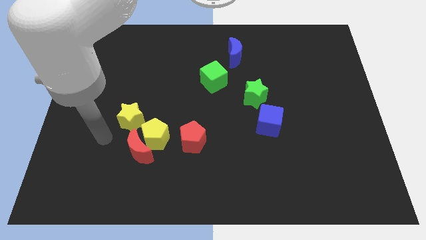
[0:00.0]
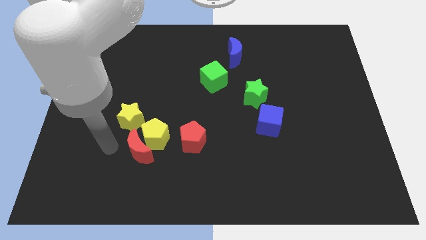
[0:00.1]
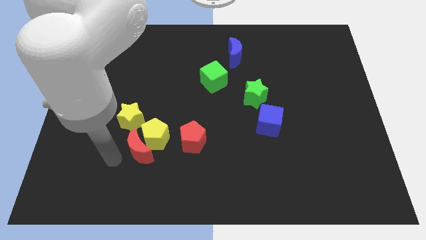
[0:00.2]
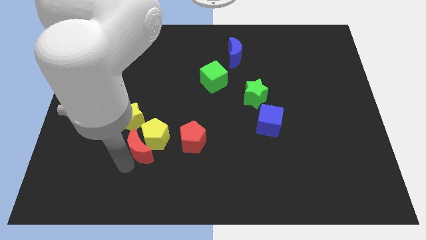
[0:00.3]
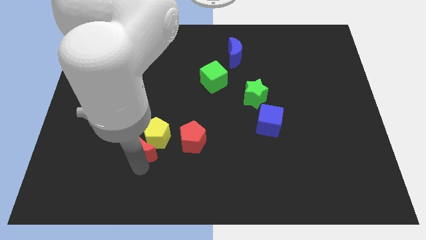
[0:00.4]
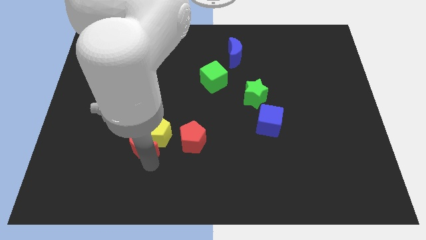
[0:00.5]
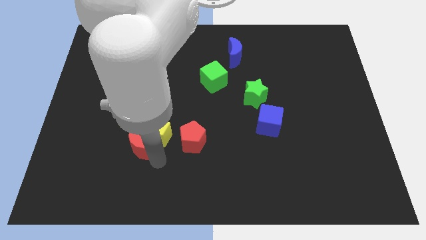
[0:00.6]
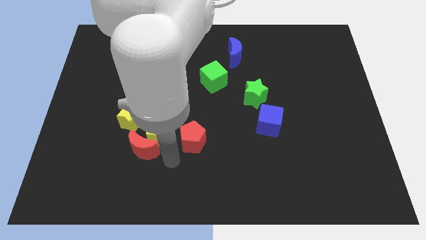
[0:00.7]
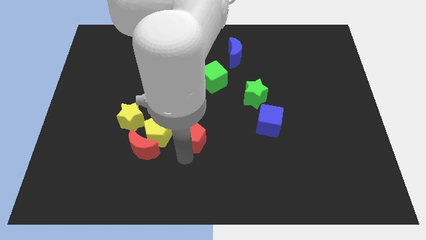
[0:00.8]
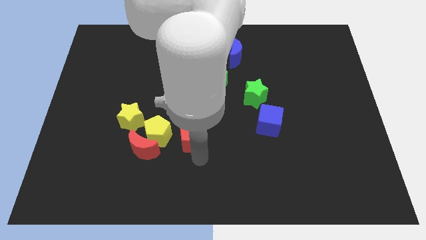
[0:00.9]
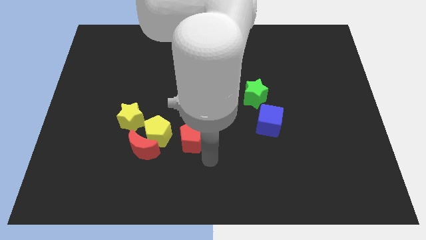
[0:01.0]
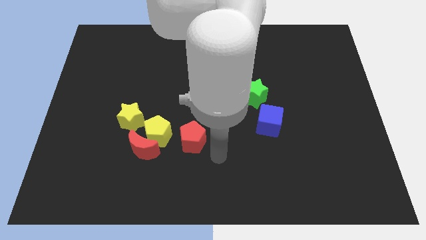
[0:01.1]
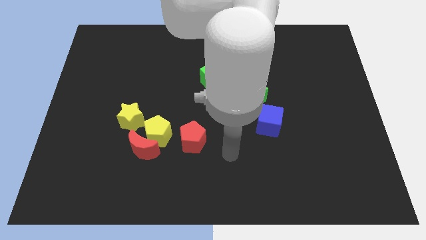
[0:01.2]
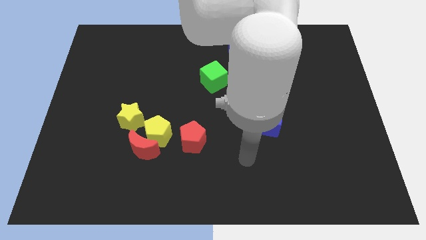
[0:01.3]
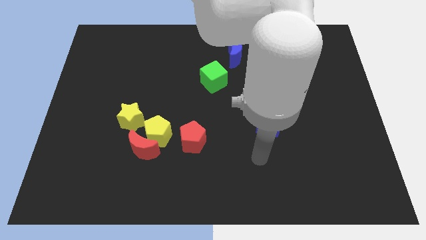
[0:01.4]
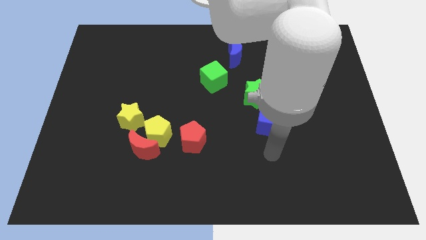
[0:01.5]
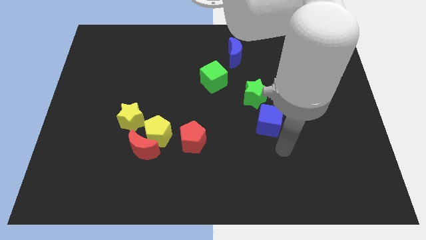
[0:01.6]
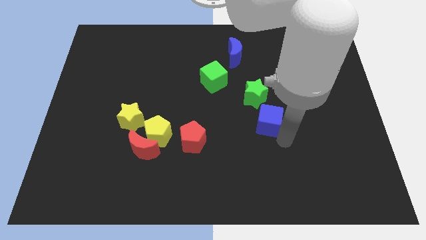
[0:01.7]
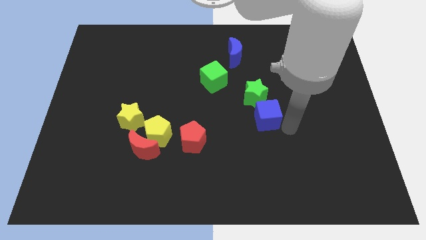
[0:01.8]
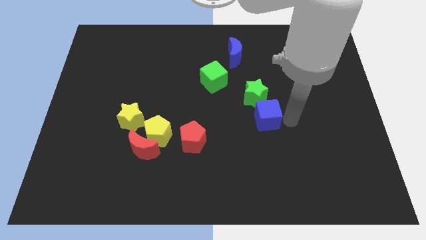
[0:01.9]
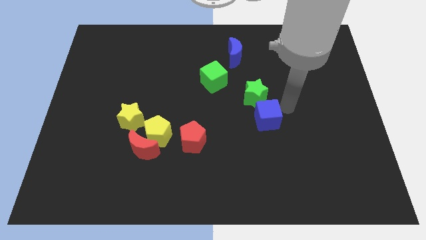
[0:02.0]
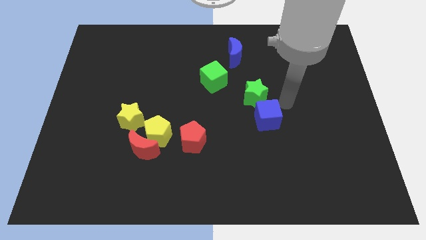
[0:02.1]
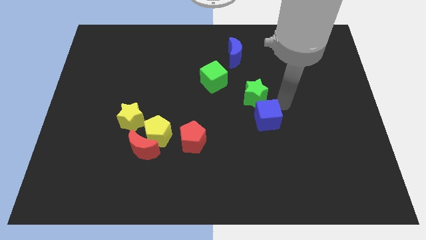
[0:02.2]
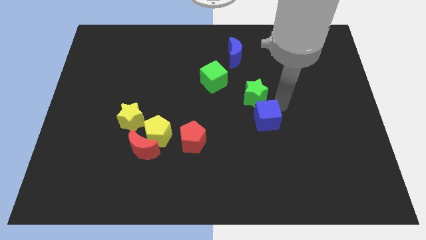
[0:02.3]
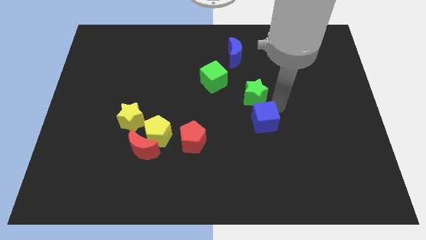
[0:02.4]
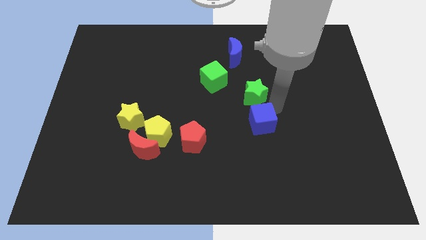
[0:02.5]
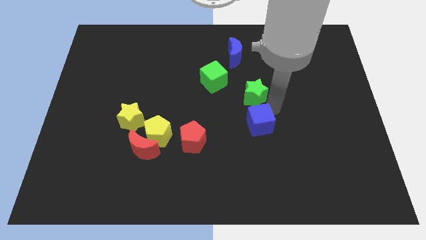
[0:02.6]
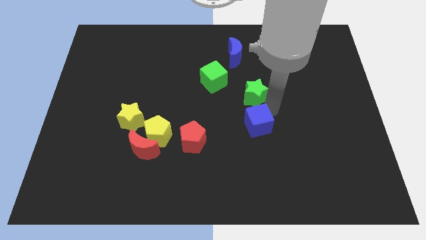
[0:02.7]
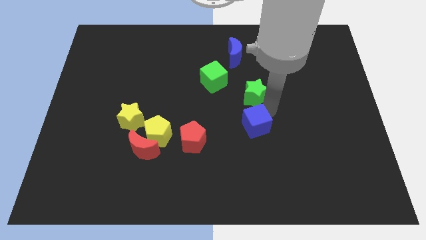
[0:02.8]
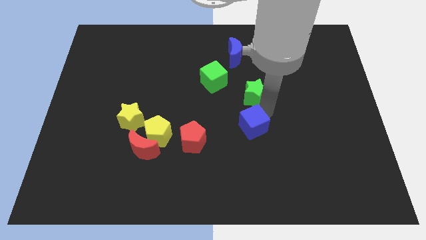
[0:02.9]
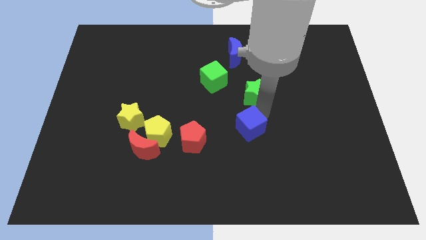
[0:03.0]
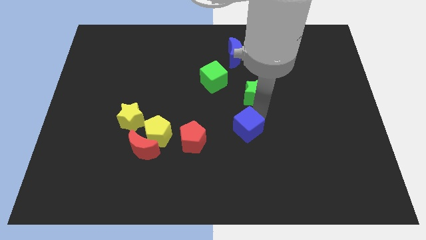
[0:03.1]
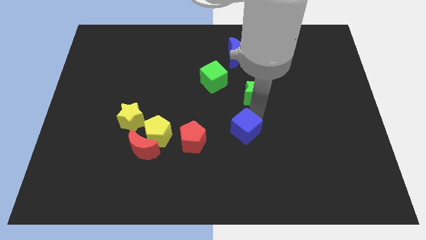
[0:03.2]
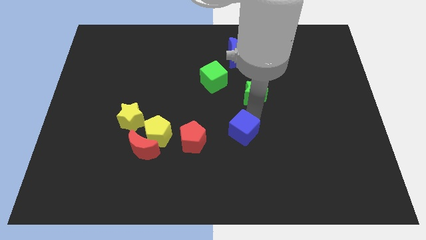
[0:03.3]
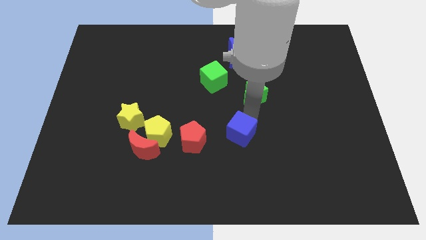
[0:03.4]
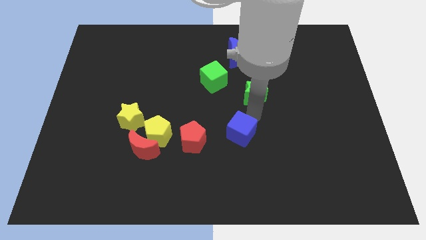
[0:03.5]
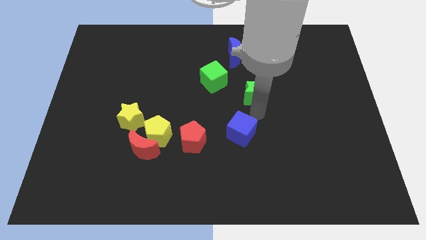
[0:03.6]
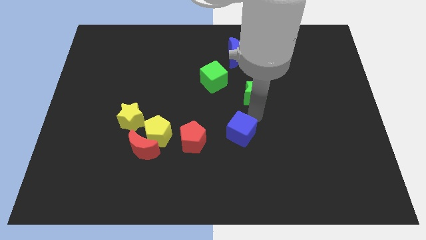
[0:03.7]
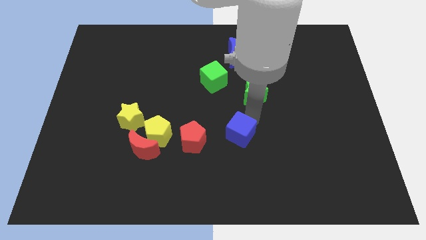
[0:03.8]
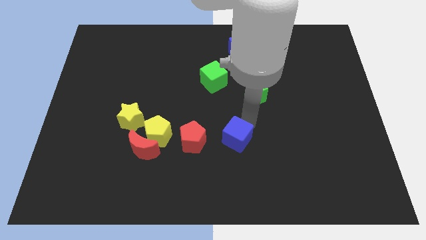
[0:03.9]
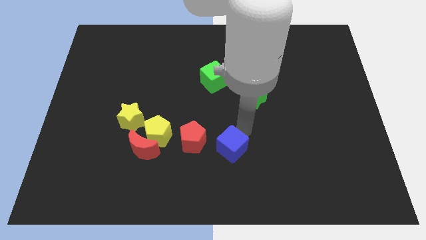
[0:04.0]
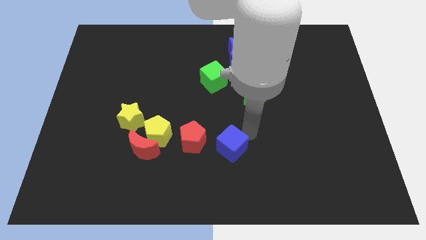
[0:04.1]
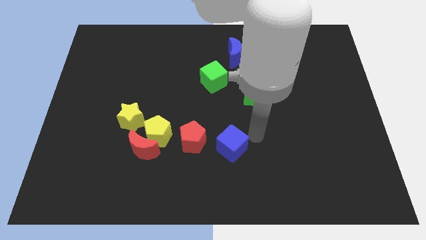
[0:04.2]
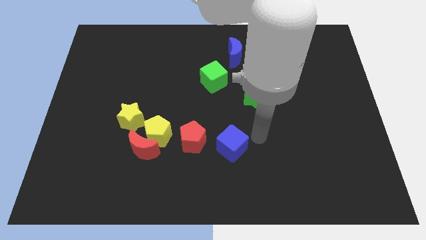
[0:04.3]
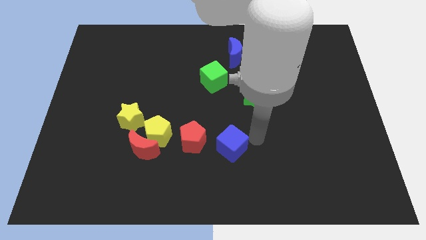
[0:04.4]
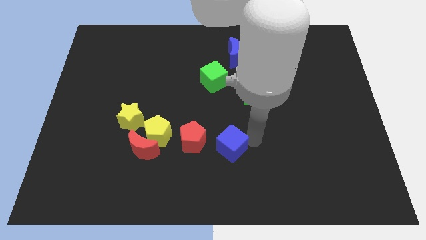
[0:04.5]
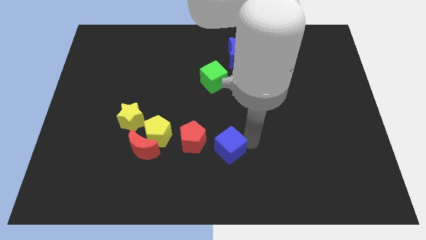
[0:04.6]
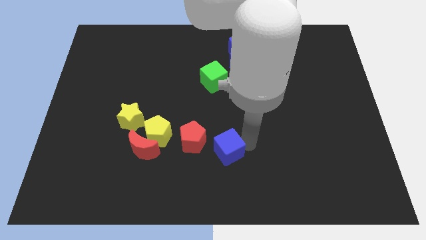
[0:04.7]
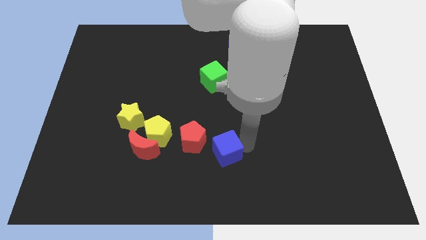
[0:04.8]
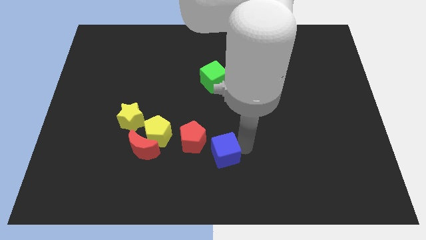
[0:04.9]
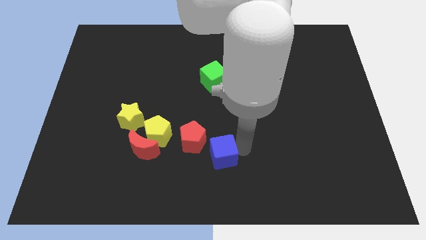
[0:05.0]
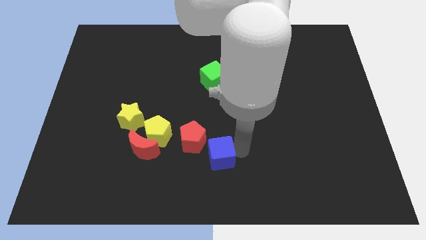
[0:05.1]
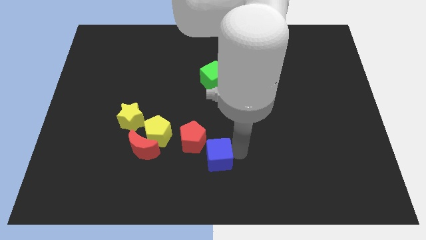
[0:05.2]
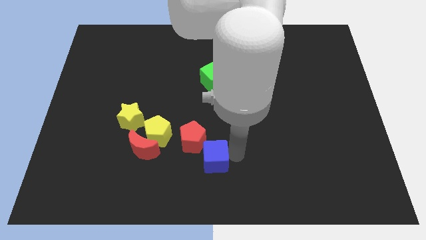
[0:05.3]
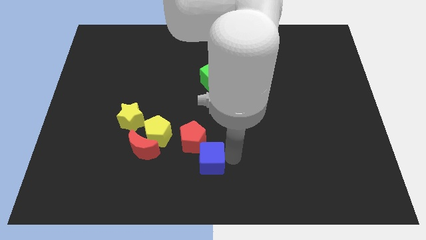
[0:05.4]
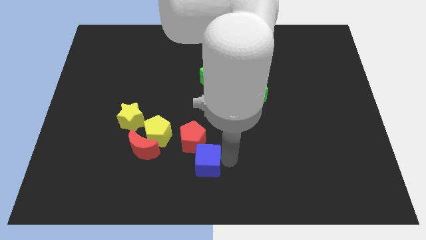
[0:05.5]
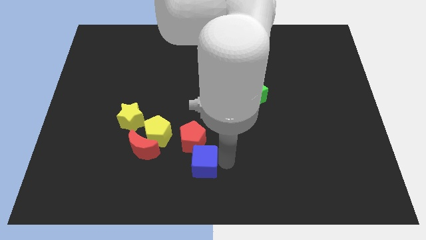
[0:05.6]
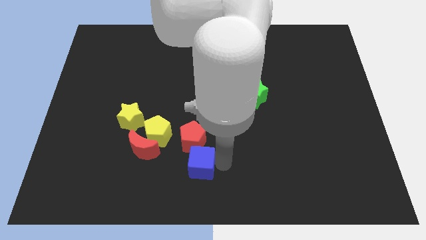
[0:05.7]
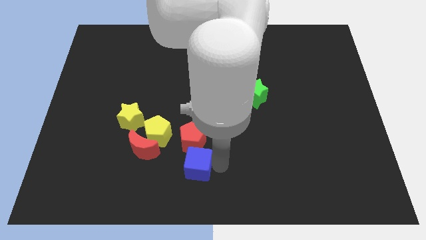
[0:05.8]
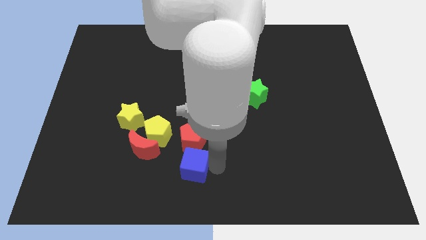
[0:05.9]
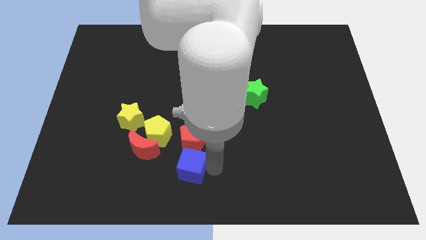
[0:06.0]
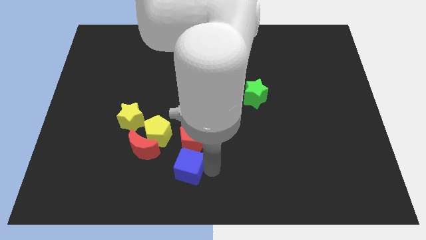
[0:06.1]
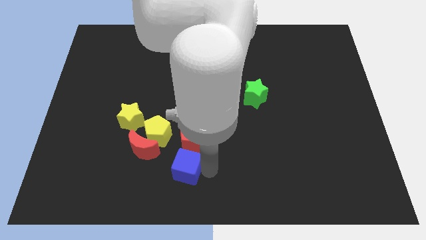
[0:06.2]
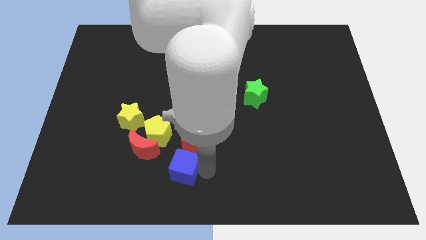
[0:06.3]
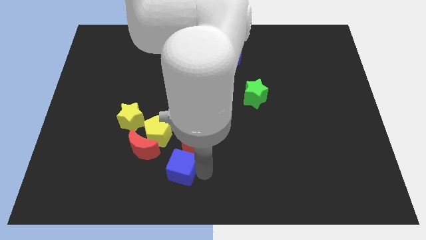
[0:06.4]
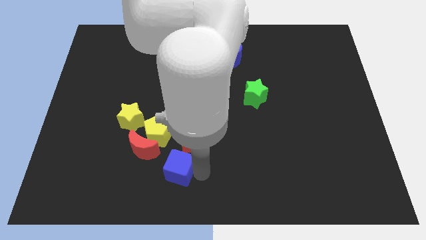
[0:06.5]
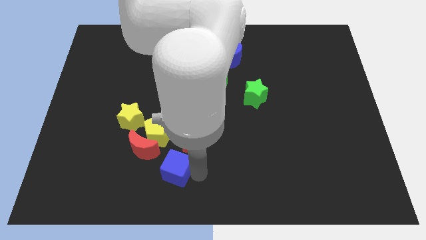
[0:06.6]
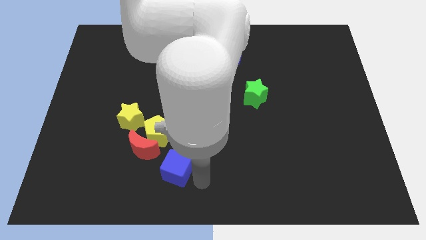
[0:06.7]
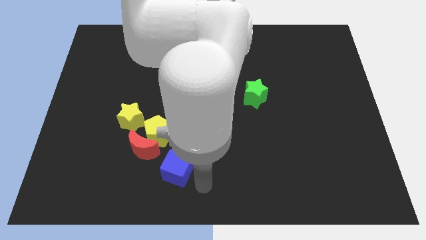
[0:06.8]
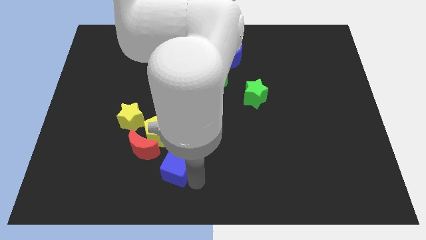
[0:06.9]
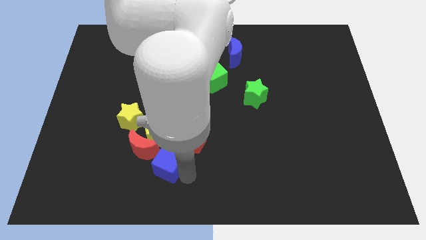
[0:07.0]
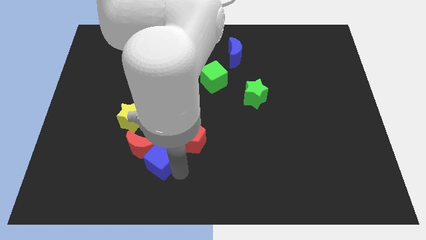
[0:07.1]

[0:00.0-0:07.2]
push the blue cube to the red moon
